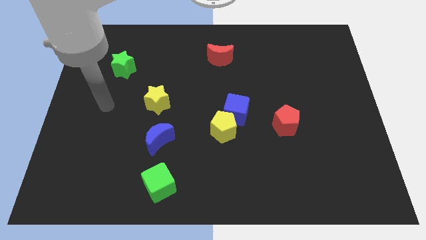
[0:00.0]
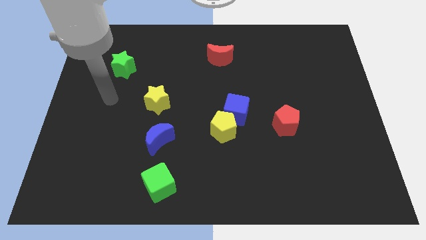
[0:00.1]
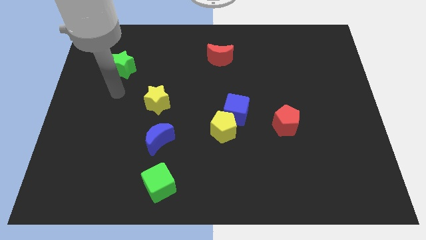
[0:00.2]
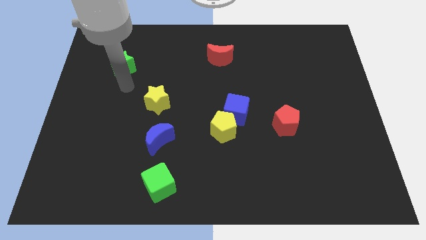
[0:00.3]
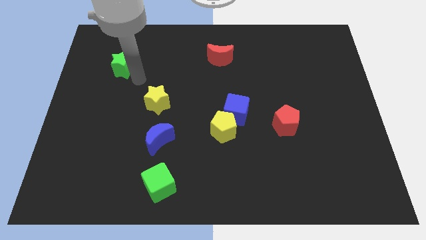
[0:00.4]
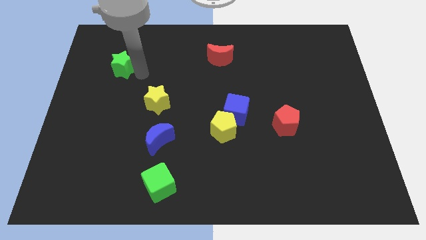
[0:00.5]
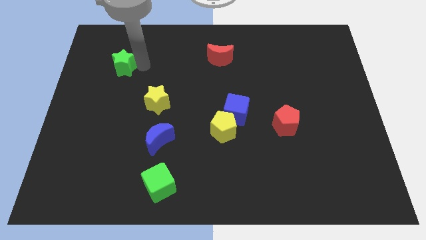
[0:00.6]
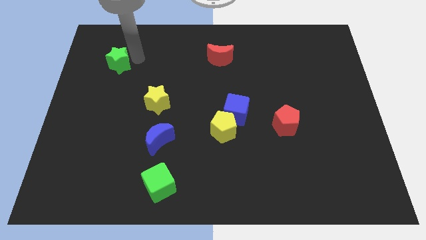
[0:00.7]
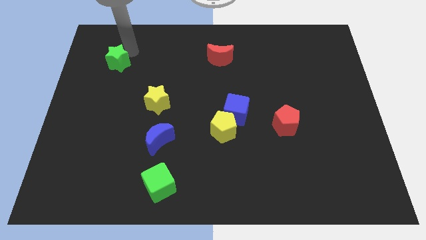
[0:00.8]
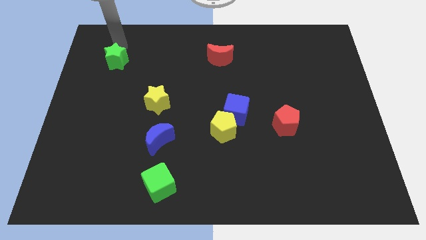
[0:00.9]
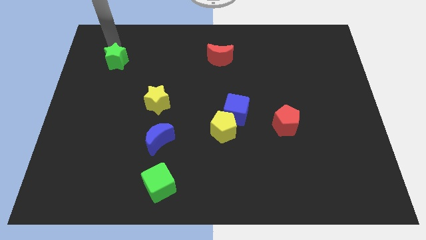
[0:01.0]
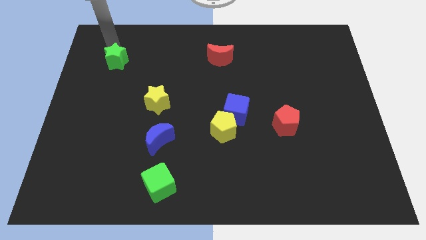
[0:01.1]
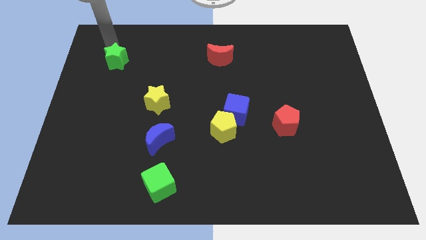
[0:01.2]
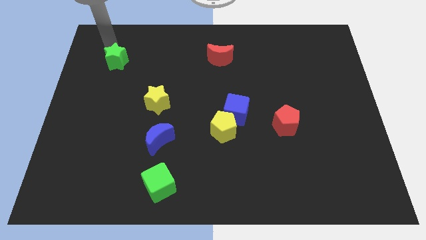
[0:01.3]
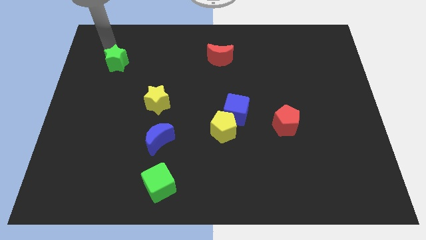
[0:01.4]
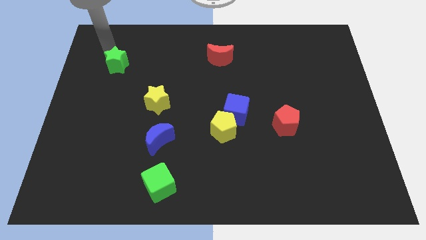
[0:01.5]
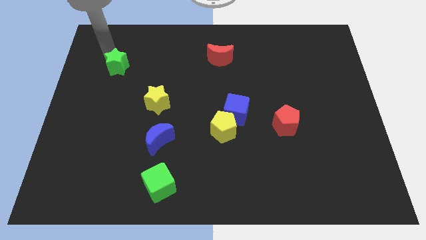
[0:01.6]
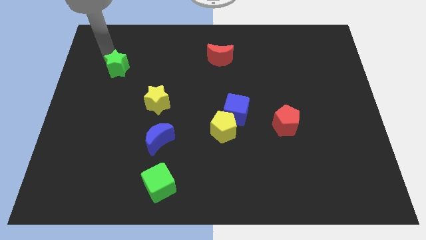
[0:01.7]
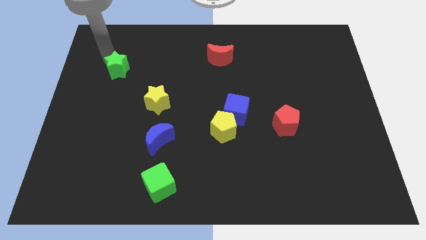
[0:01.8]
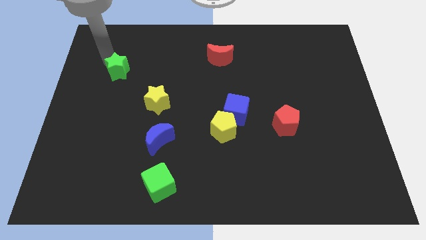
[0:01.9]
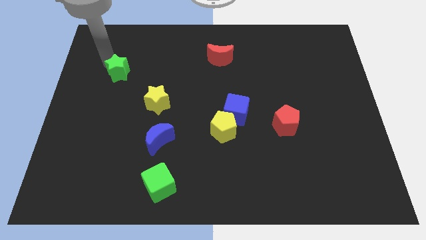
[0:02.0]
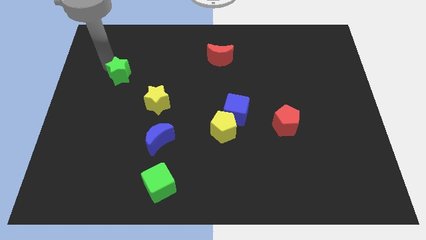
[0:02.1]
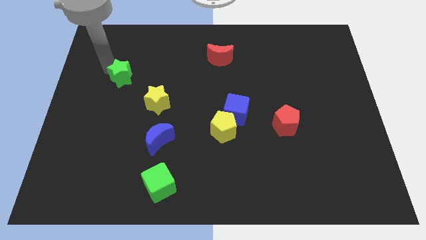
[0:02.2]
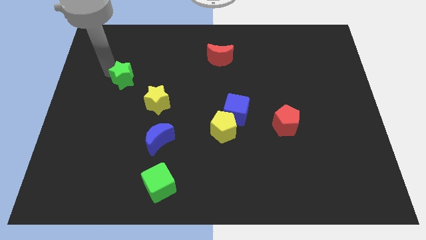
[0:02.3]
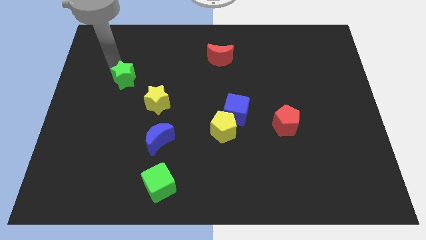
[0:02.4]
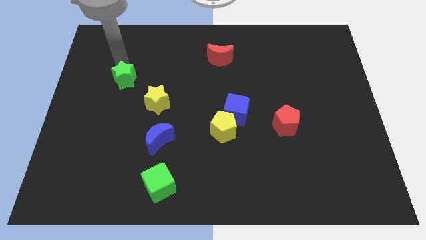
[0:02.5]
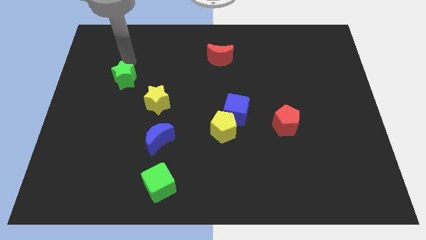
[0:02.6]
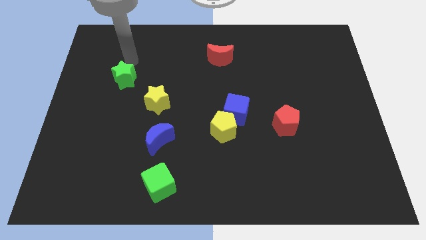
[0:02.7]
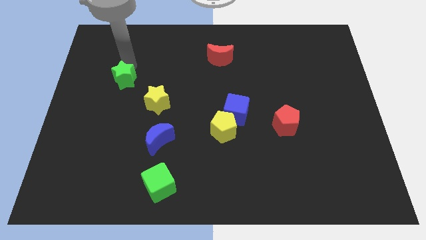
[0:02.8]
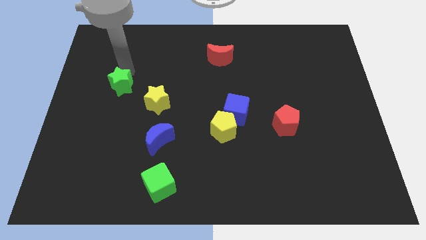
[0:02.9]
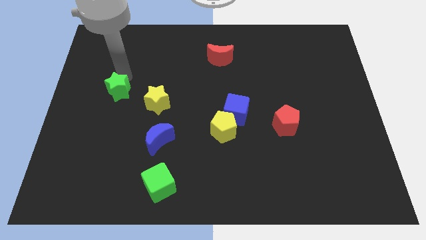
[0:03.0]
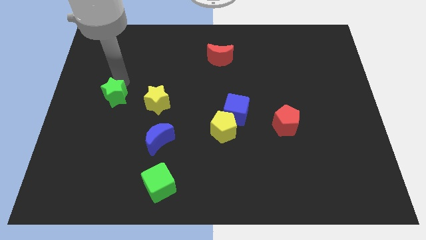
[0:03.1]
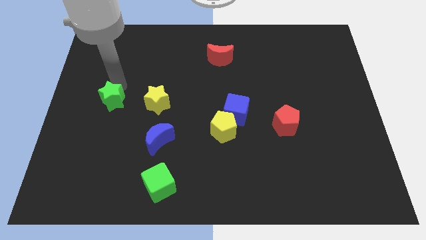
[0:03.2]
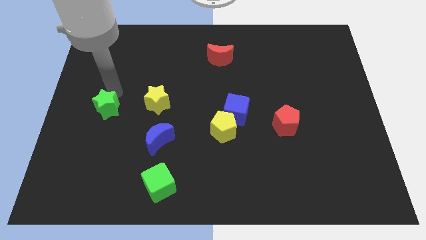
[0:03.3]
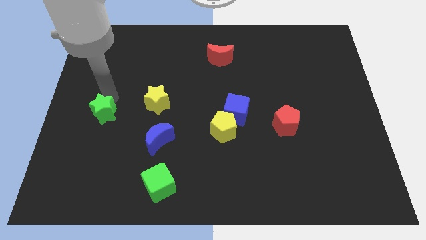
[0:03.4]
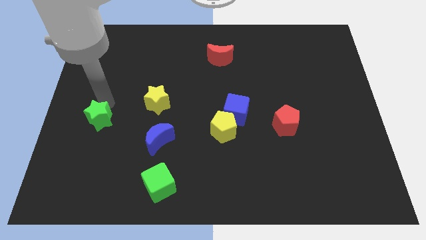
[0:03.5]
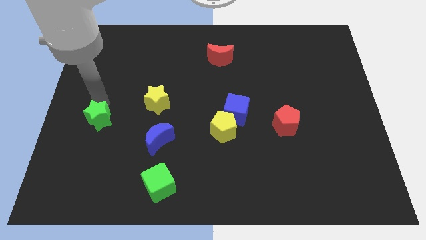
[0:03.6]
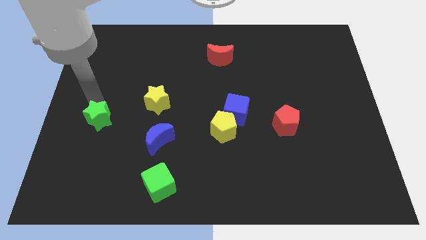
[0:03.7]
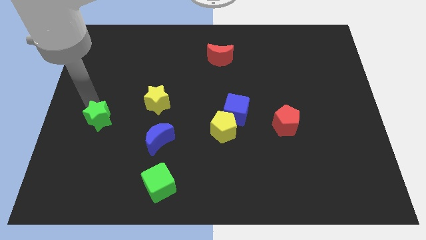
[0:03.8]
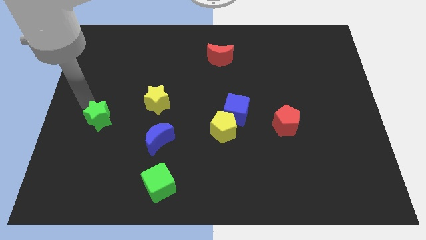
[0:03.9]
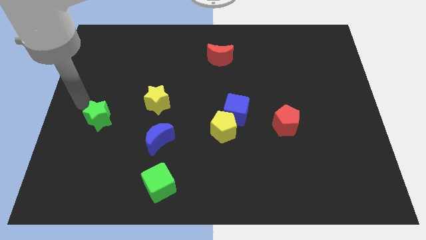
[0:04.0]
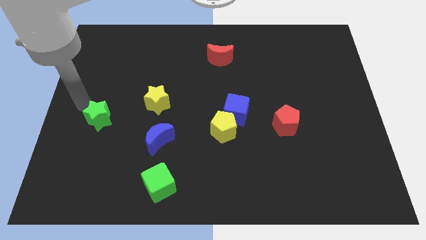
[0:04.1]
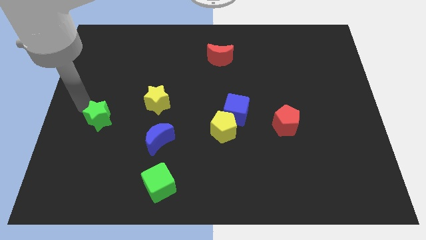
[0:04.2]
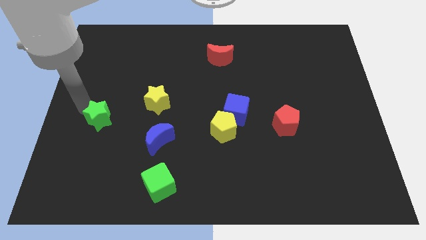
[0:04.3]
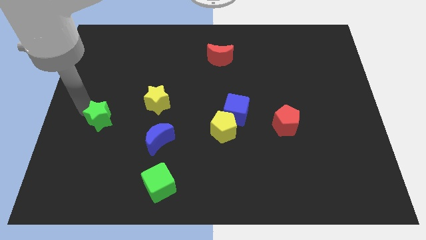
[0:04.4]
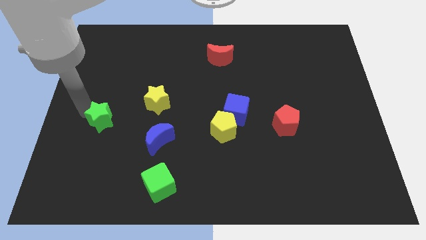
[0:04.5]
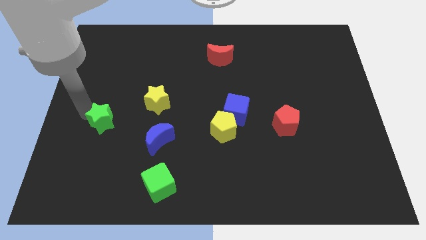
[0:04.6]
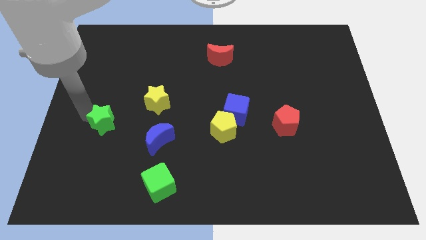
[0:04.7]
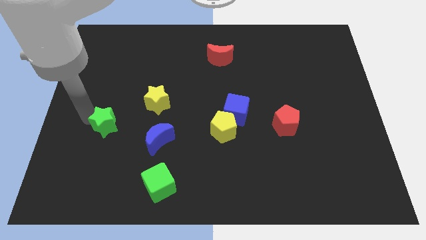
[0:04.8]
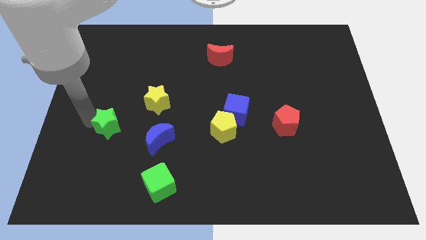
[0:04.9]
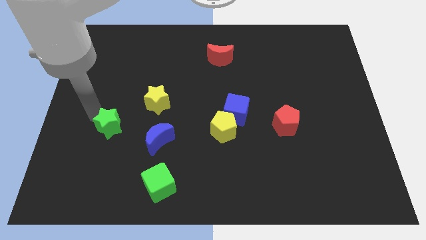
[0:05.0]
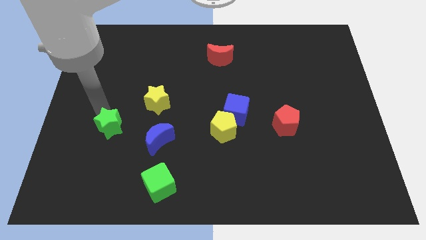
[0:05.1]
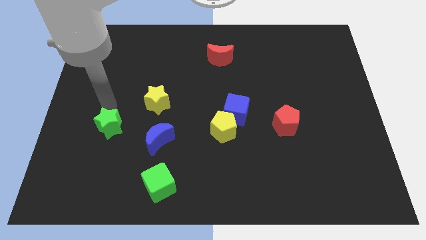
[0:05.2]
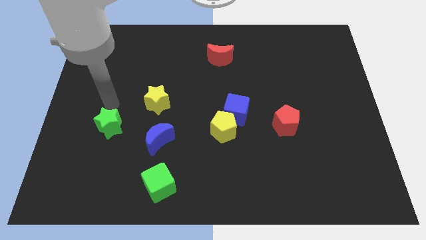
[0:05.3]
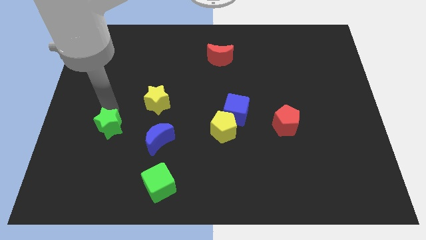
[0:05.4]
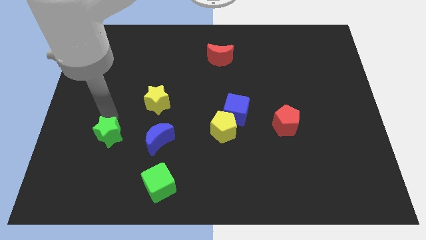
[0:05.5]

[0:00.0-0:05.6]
push the green star down

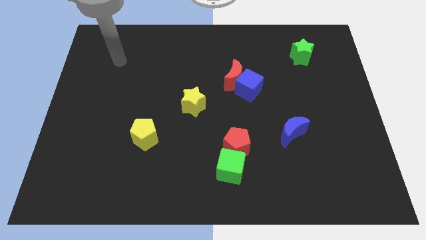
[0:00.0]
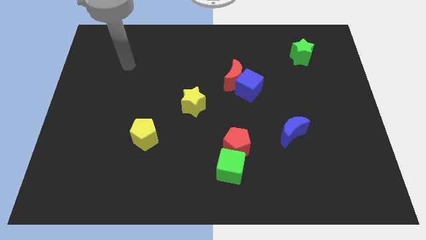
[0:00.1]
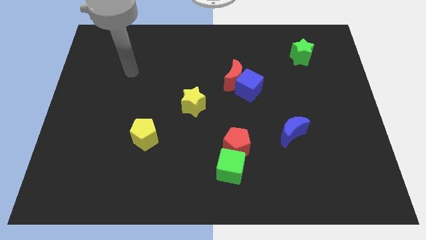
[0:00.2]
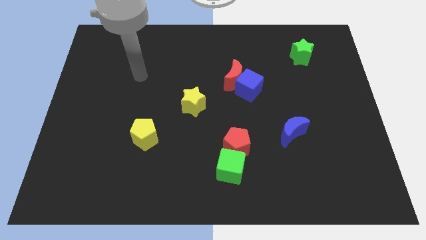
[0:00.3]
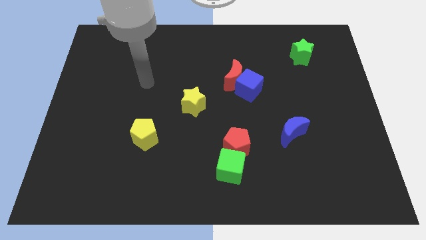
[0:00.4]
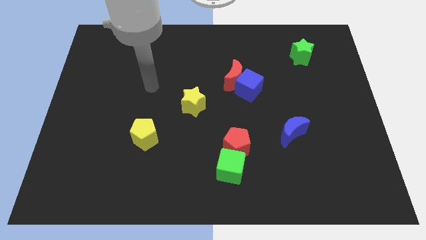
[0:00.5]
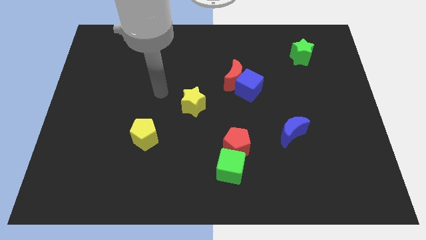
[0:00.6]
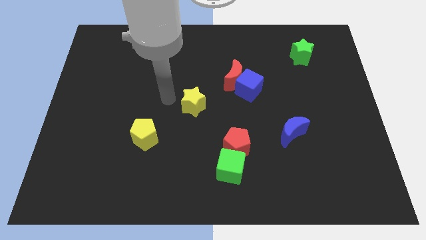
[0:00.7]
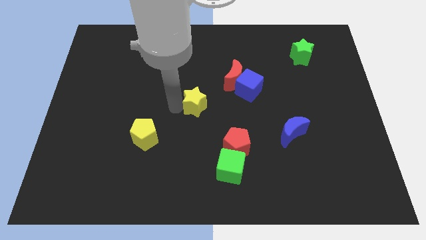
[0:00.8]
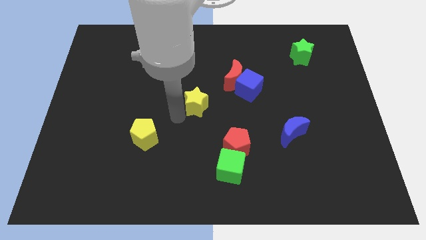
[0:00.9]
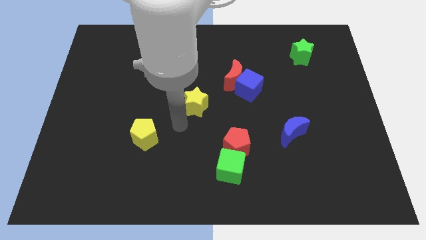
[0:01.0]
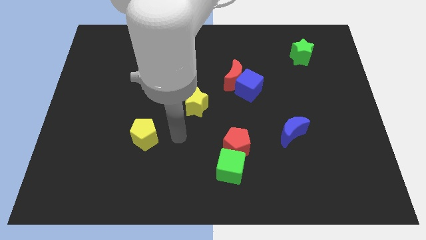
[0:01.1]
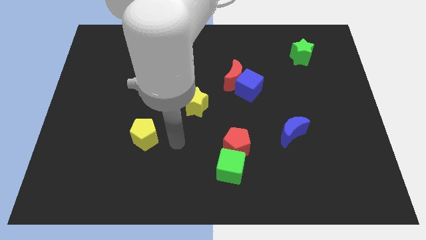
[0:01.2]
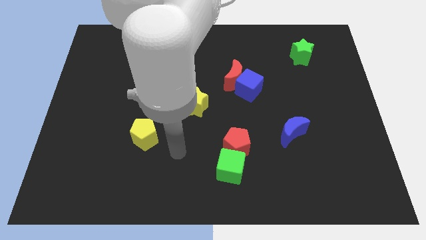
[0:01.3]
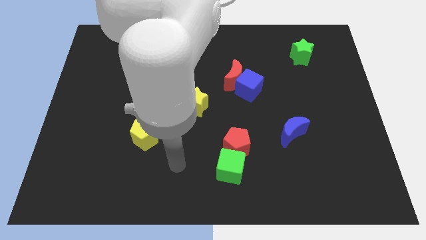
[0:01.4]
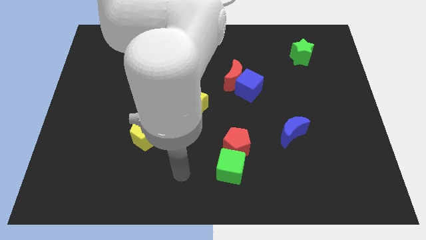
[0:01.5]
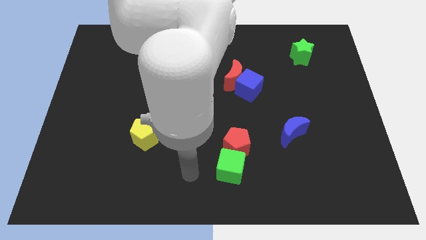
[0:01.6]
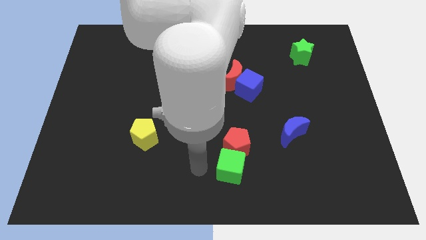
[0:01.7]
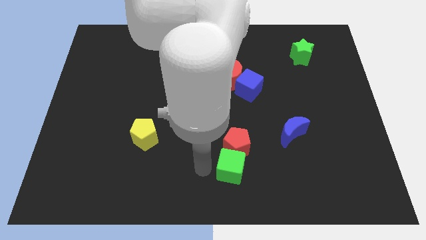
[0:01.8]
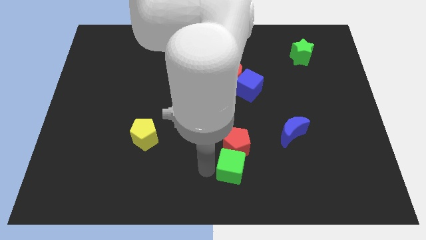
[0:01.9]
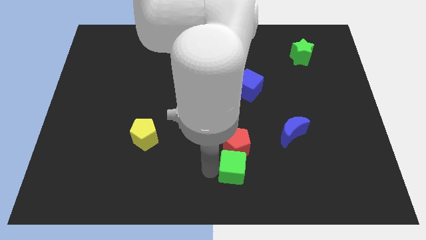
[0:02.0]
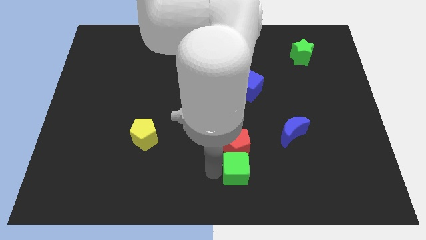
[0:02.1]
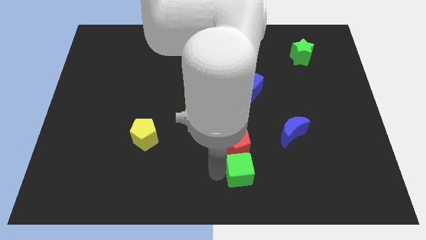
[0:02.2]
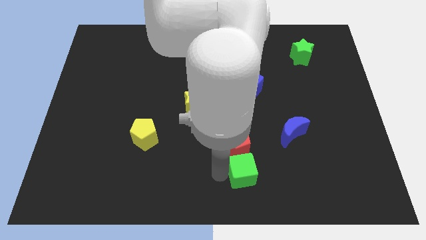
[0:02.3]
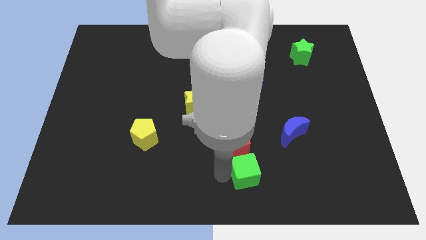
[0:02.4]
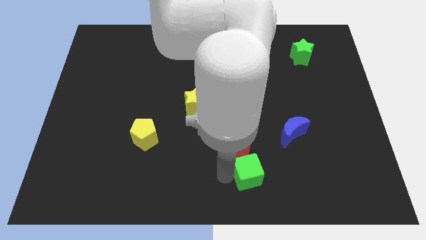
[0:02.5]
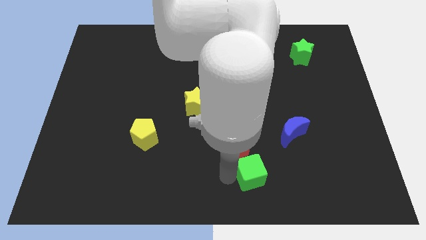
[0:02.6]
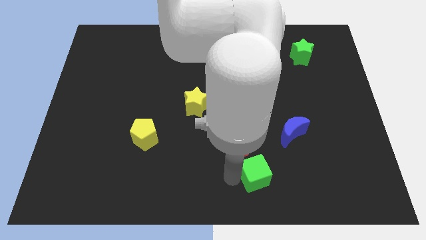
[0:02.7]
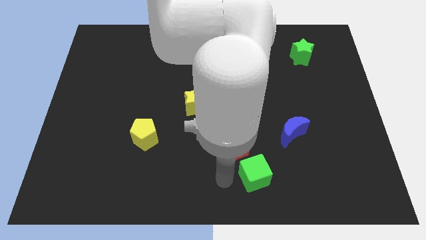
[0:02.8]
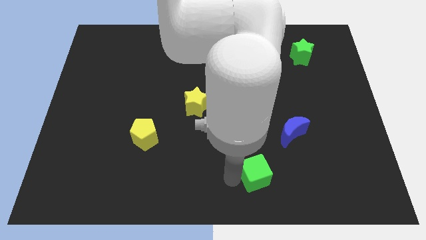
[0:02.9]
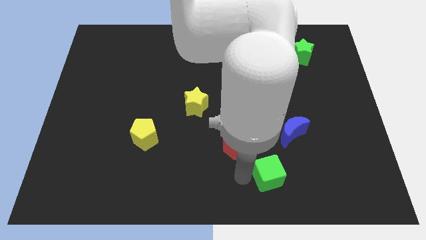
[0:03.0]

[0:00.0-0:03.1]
slightly move the green cube right
